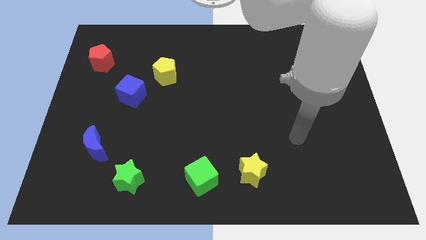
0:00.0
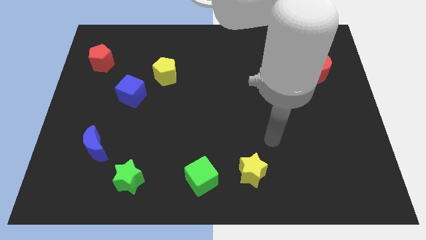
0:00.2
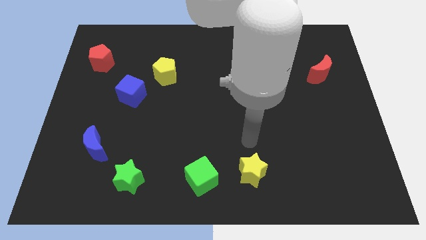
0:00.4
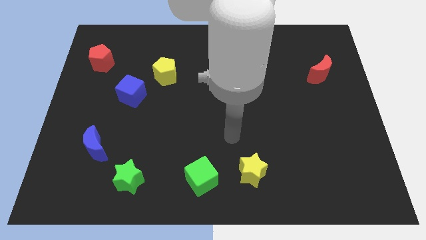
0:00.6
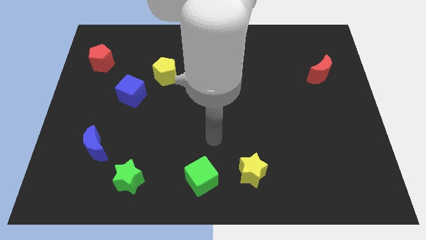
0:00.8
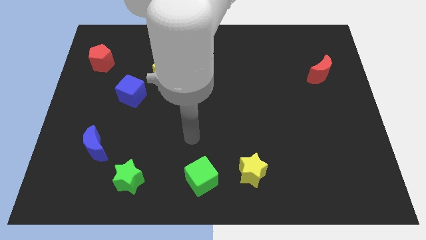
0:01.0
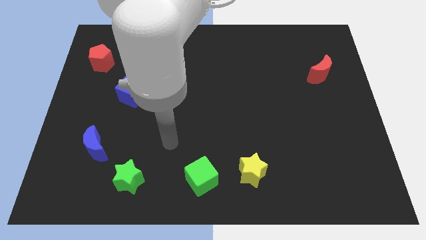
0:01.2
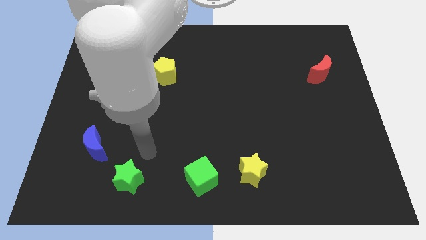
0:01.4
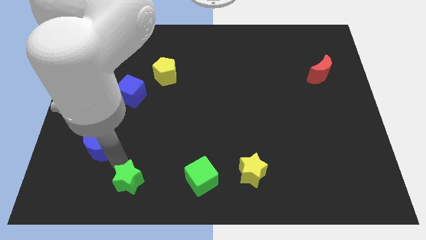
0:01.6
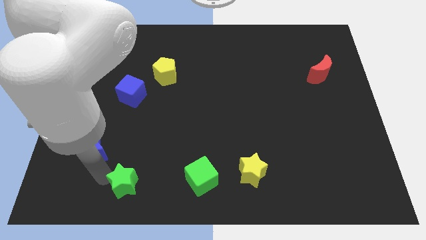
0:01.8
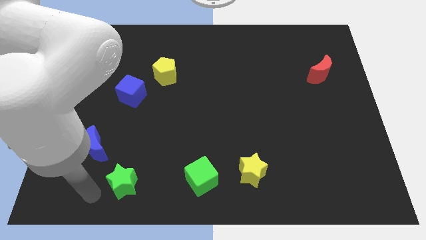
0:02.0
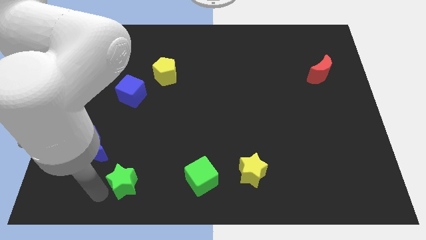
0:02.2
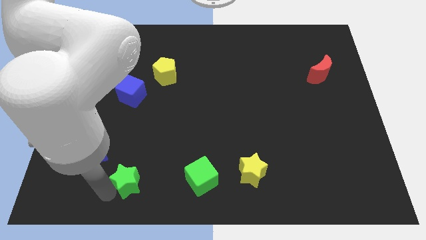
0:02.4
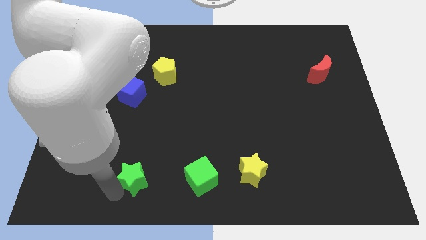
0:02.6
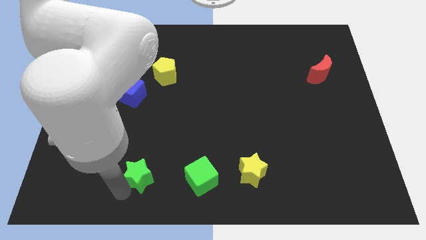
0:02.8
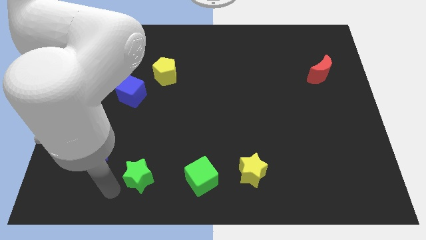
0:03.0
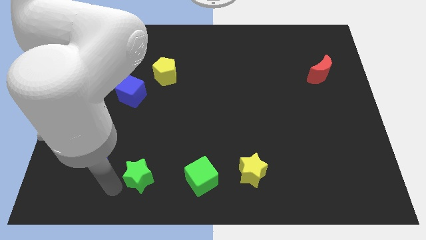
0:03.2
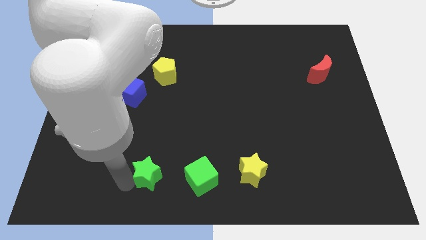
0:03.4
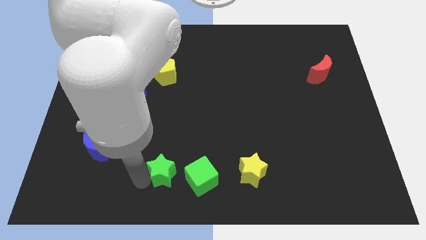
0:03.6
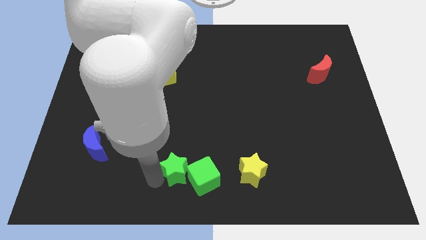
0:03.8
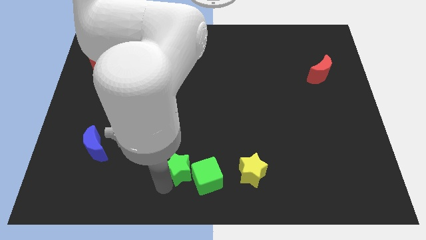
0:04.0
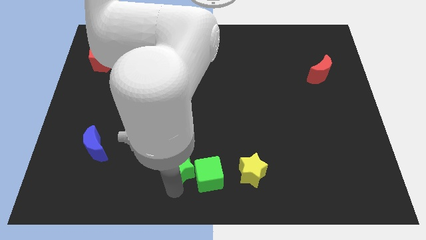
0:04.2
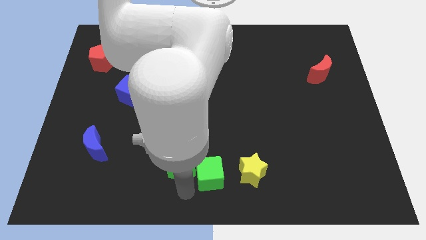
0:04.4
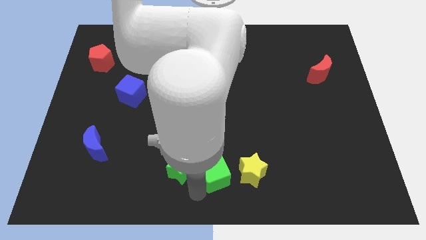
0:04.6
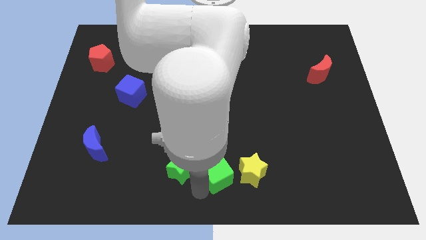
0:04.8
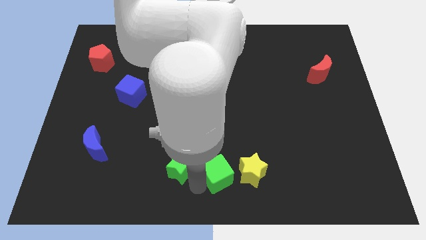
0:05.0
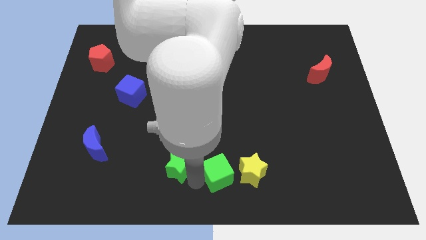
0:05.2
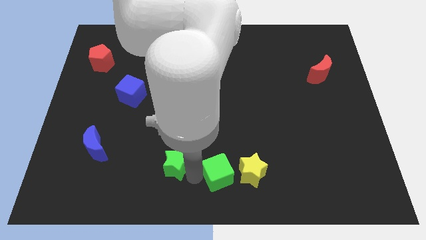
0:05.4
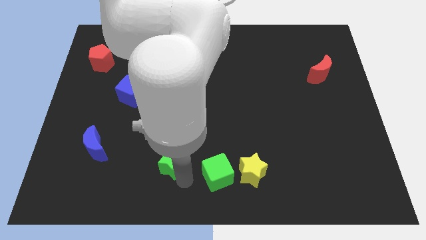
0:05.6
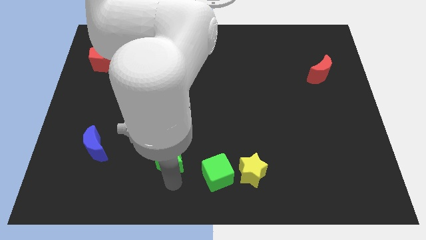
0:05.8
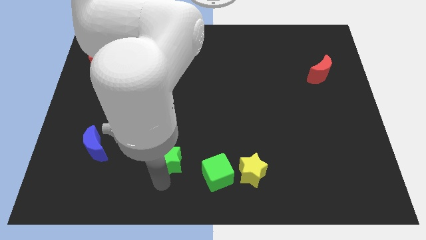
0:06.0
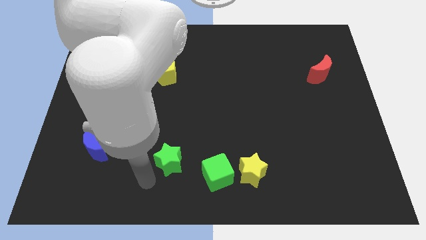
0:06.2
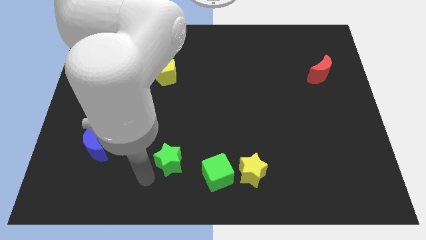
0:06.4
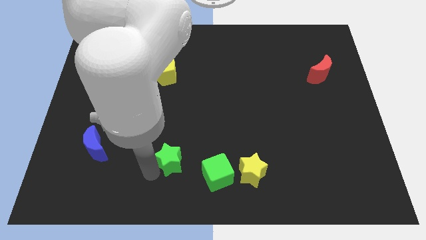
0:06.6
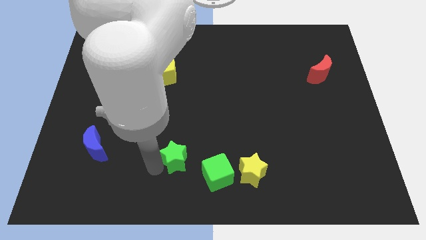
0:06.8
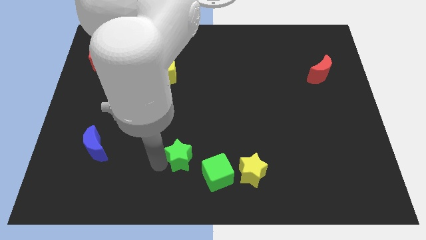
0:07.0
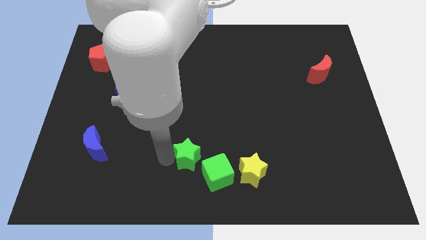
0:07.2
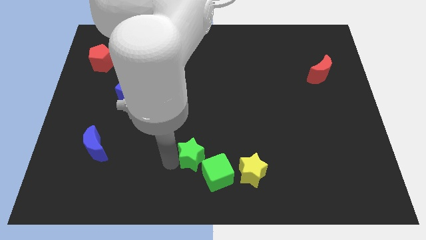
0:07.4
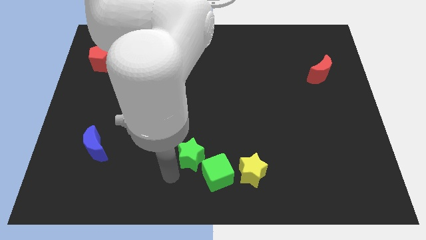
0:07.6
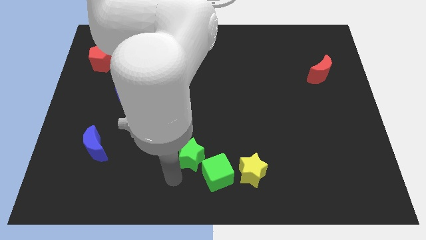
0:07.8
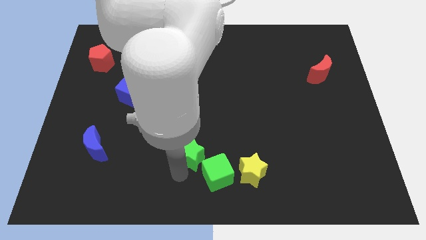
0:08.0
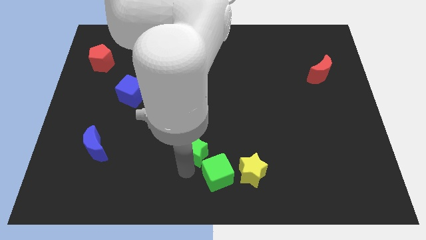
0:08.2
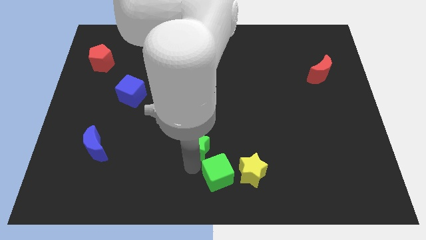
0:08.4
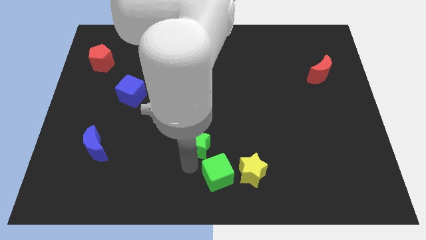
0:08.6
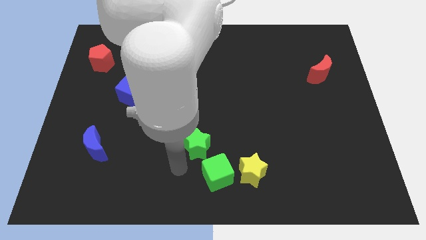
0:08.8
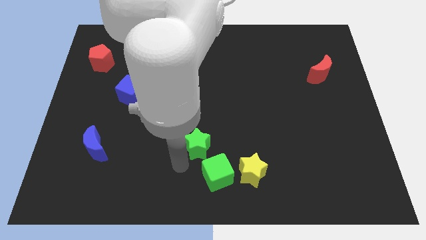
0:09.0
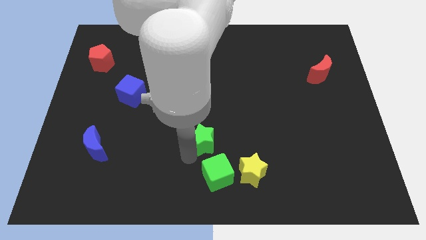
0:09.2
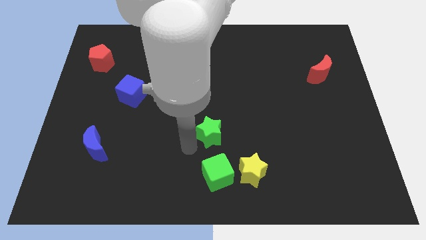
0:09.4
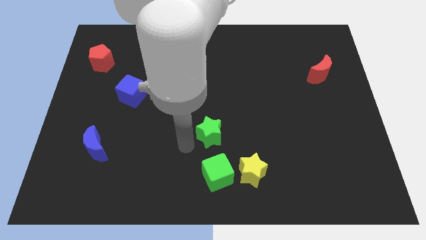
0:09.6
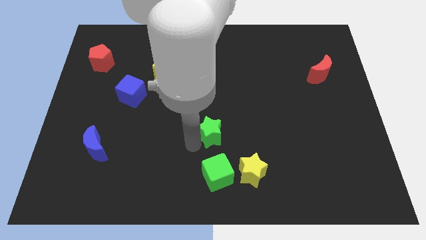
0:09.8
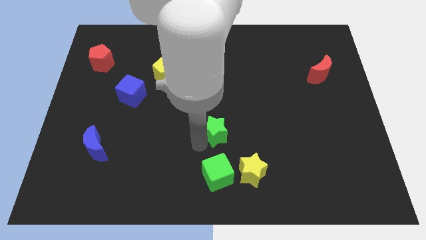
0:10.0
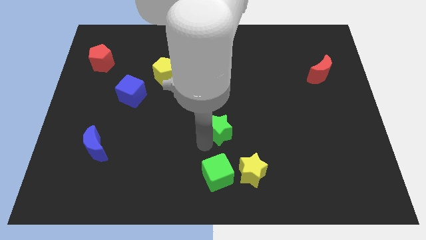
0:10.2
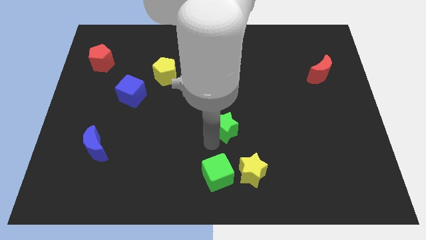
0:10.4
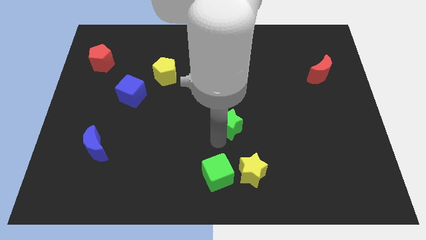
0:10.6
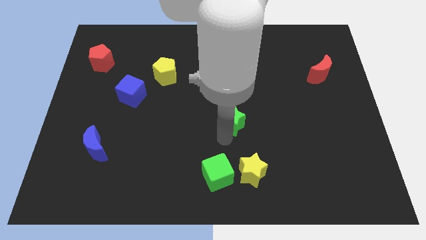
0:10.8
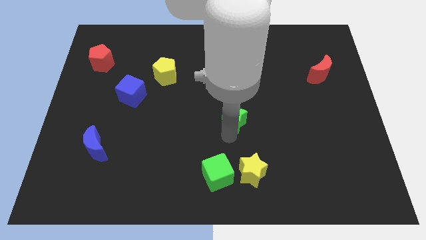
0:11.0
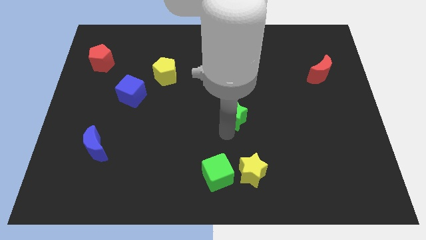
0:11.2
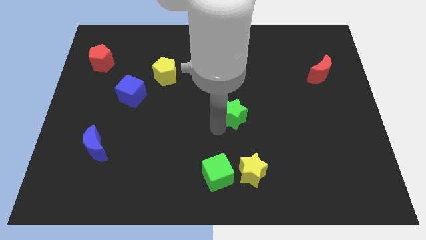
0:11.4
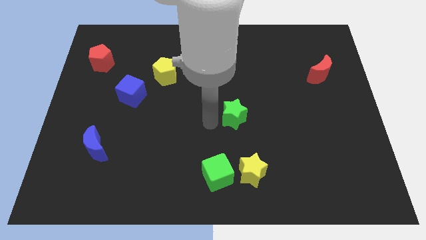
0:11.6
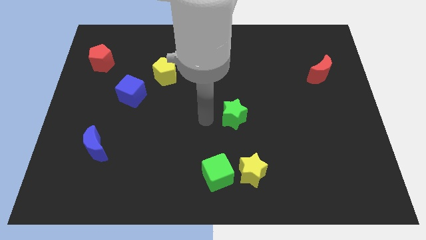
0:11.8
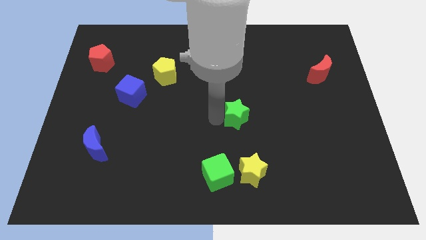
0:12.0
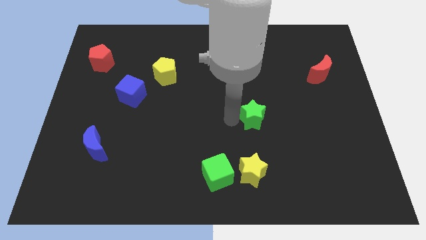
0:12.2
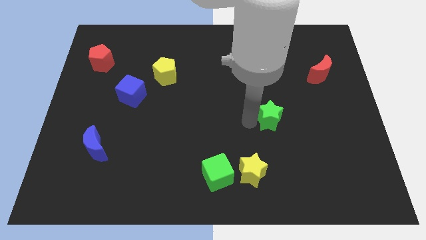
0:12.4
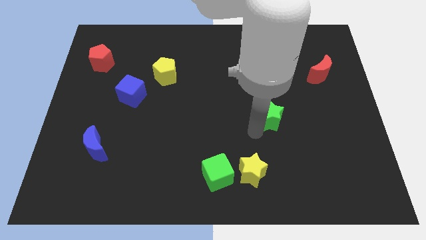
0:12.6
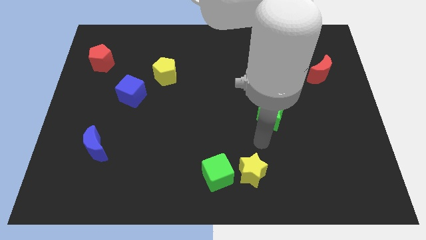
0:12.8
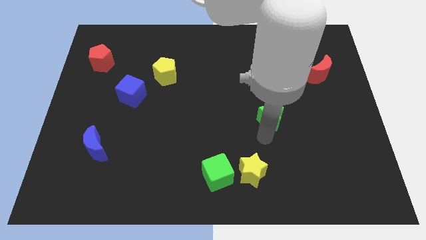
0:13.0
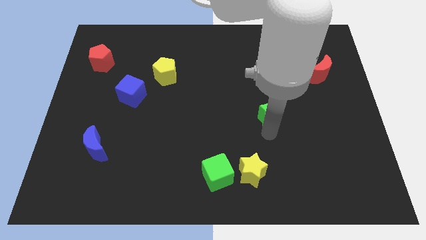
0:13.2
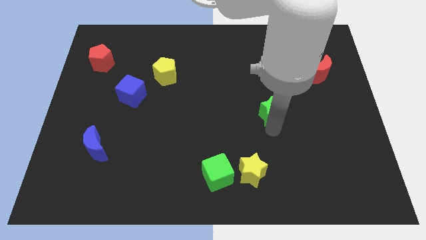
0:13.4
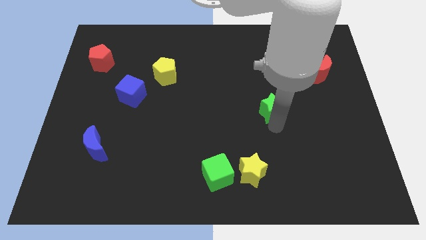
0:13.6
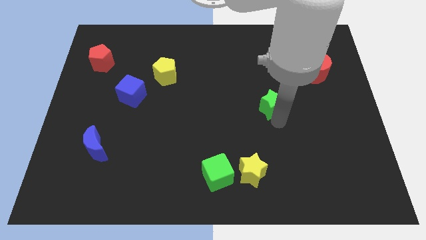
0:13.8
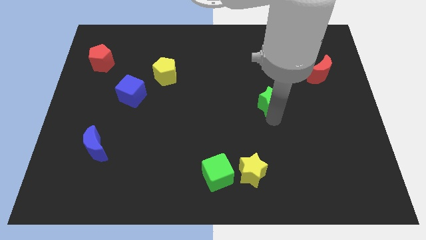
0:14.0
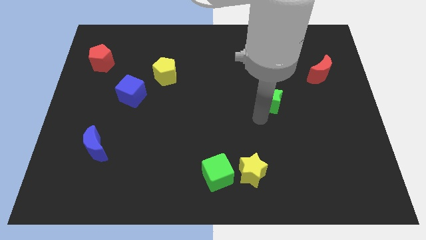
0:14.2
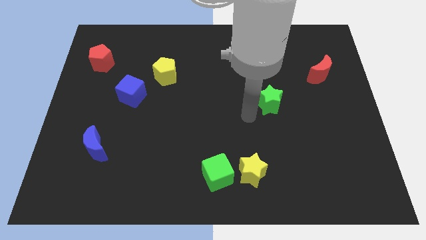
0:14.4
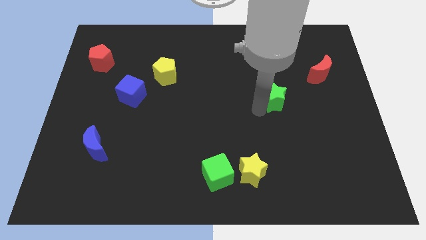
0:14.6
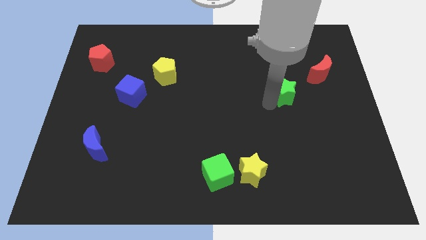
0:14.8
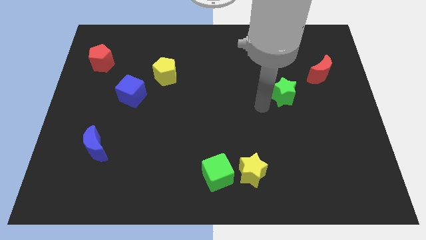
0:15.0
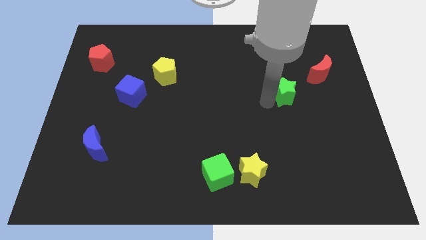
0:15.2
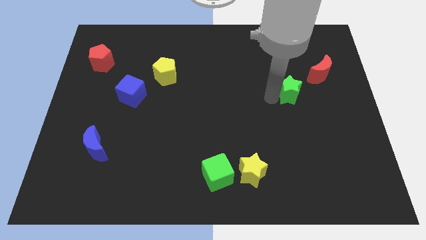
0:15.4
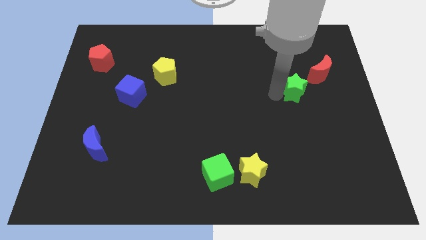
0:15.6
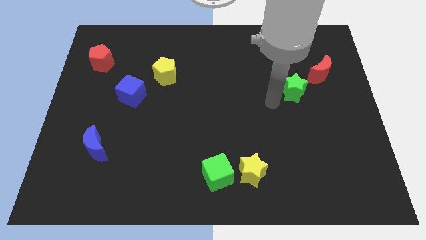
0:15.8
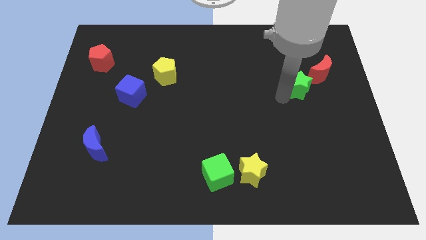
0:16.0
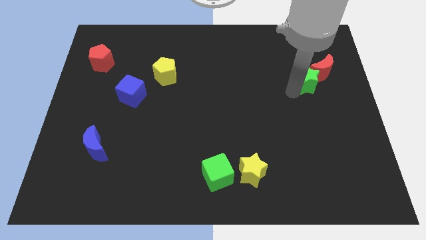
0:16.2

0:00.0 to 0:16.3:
slide the green star close to the red moon

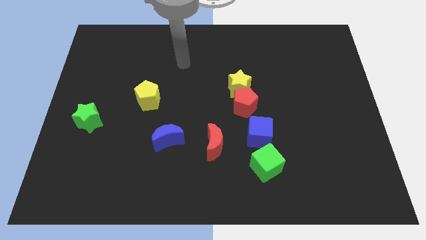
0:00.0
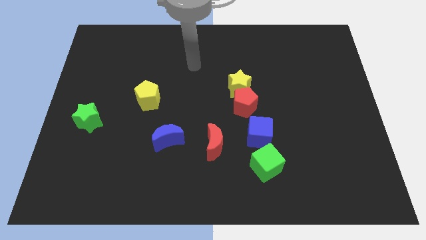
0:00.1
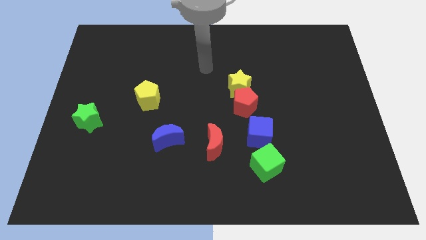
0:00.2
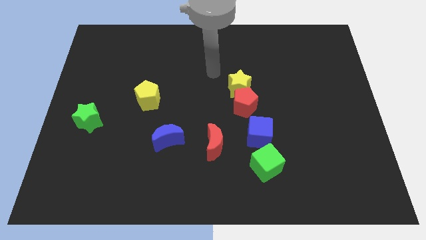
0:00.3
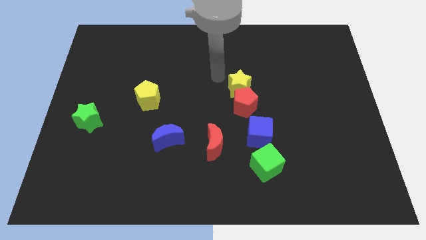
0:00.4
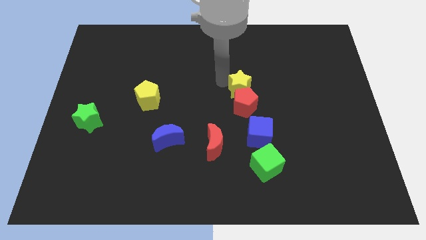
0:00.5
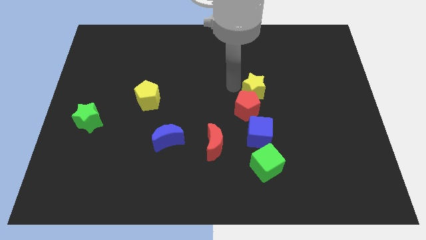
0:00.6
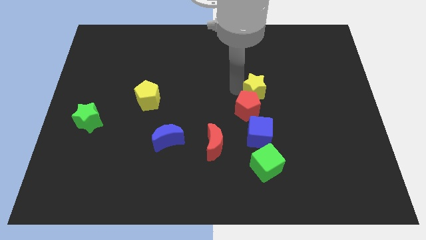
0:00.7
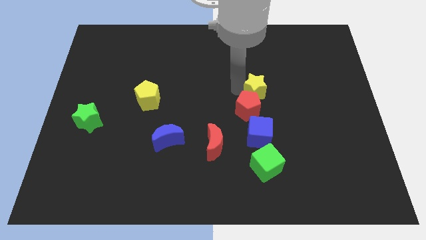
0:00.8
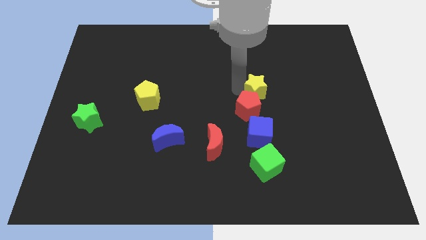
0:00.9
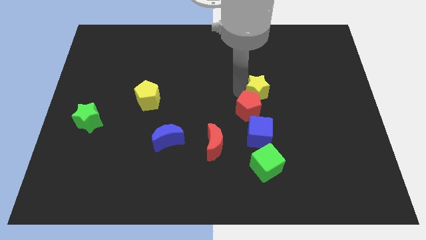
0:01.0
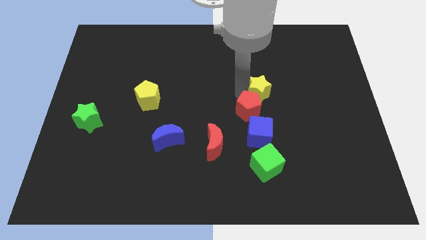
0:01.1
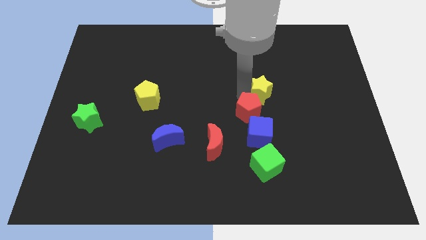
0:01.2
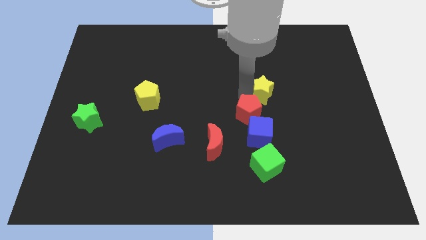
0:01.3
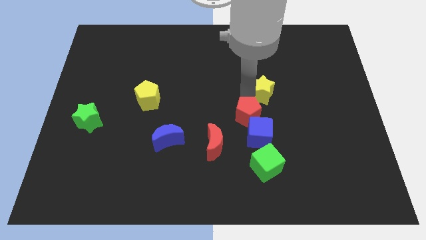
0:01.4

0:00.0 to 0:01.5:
move the red pentagon close to the blue cube
